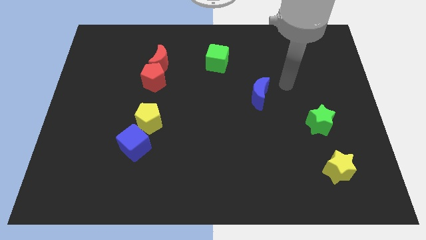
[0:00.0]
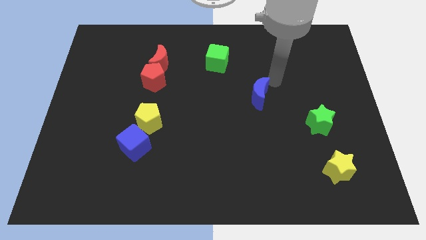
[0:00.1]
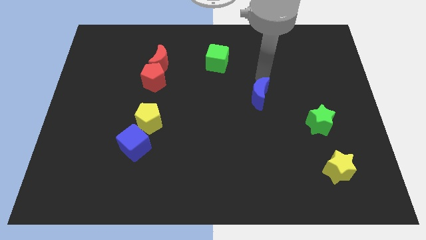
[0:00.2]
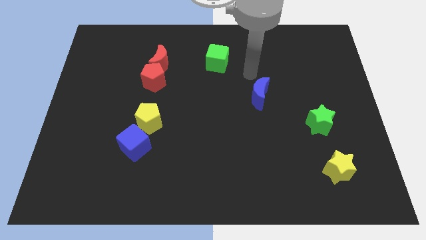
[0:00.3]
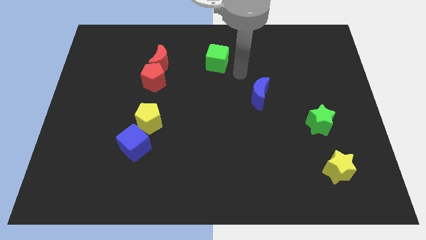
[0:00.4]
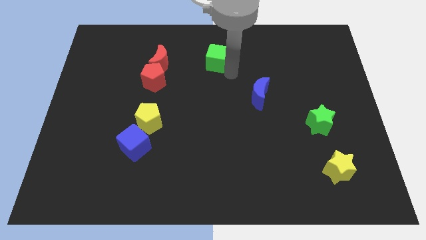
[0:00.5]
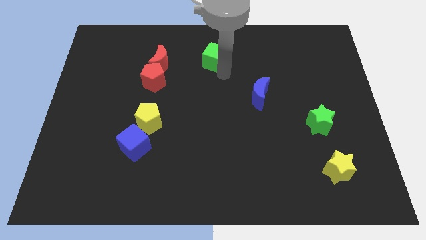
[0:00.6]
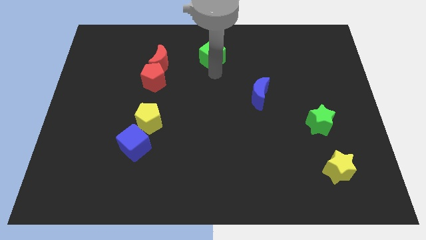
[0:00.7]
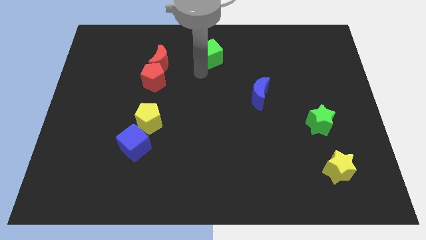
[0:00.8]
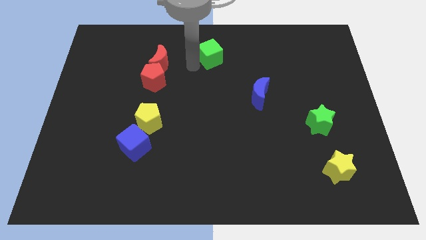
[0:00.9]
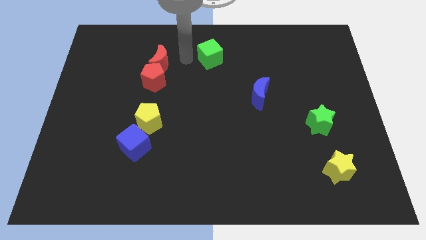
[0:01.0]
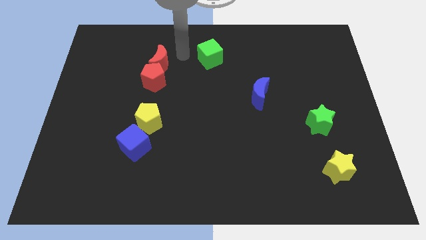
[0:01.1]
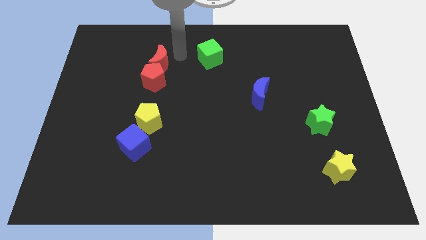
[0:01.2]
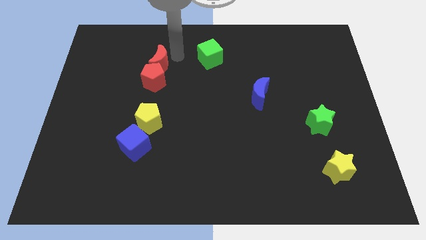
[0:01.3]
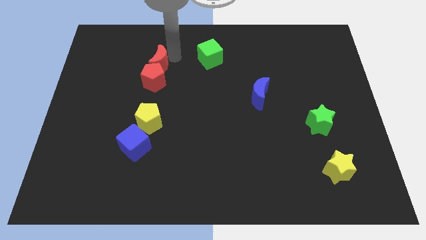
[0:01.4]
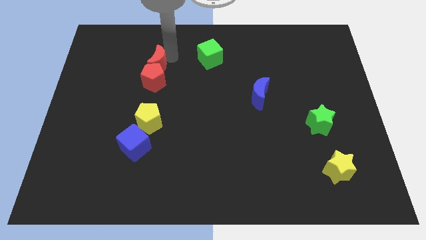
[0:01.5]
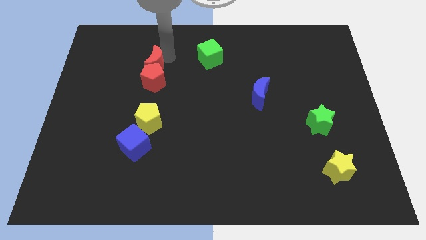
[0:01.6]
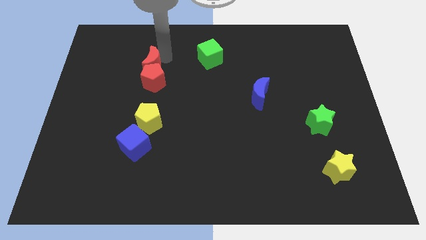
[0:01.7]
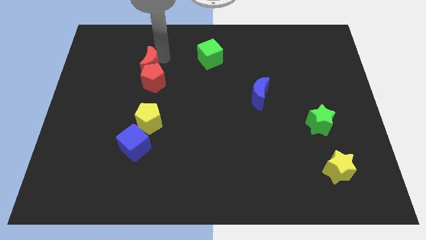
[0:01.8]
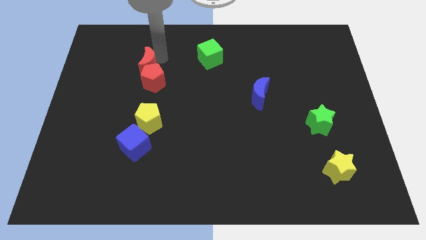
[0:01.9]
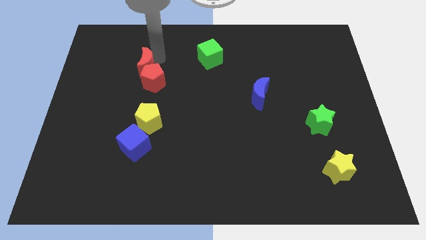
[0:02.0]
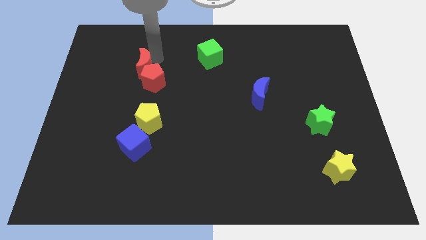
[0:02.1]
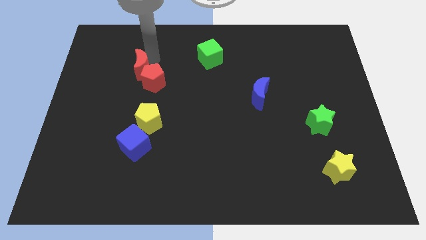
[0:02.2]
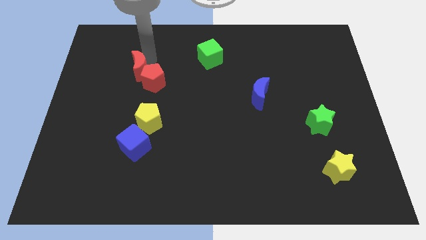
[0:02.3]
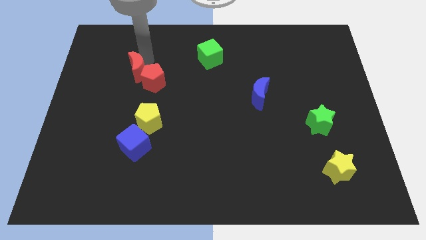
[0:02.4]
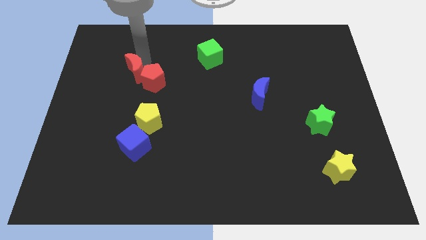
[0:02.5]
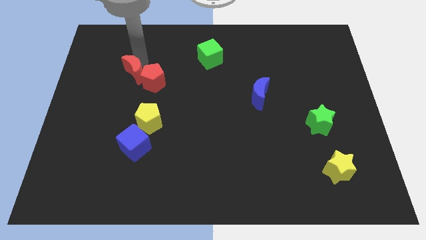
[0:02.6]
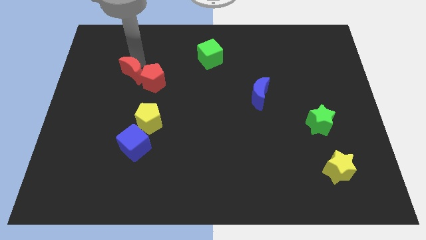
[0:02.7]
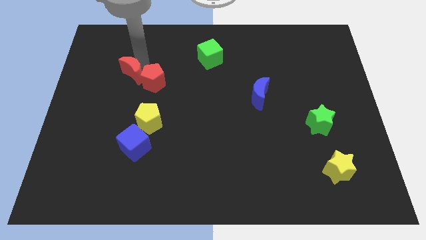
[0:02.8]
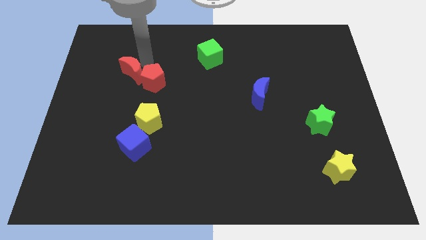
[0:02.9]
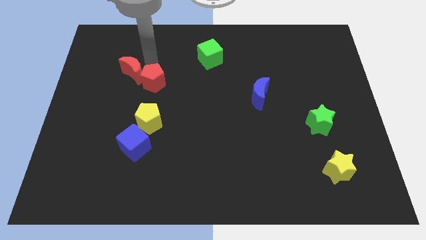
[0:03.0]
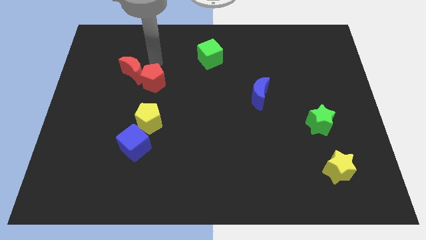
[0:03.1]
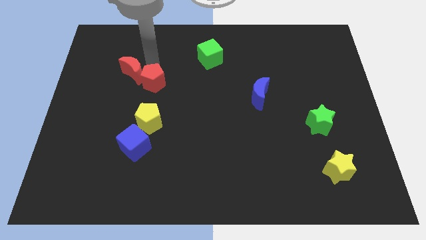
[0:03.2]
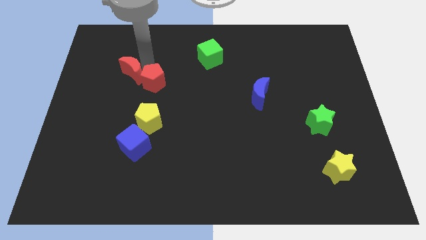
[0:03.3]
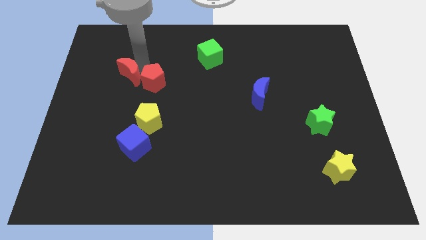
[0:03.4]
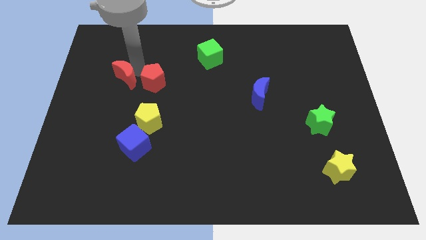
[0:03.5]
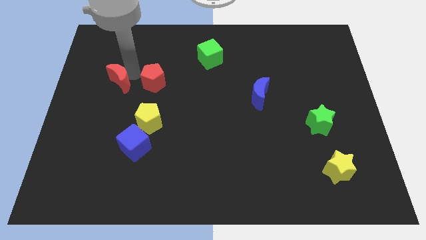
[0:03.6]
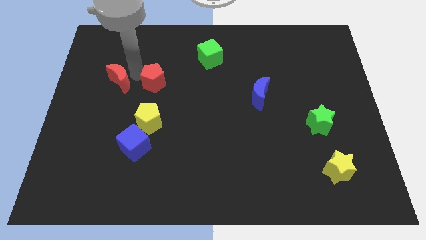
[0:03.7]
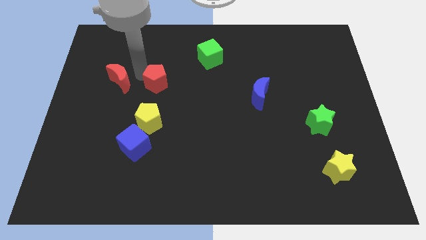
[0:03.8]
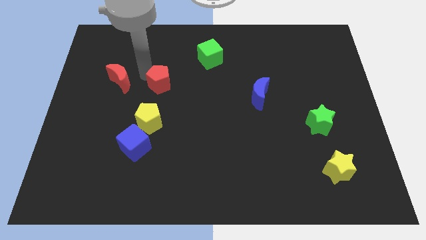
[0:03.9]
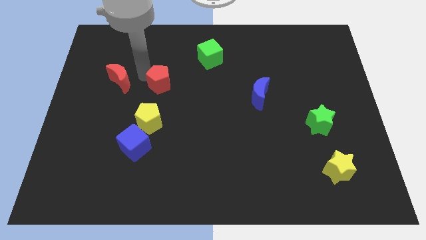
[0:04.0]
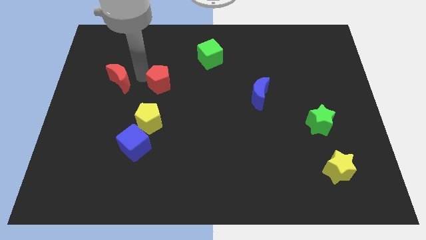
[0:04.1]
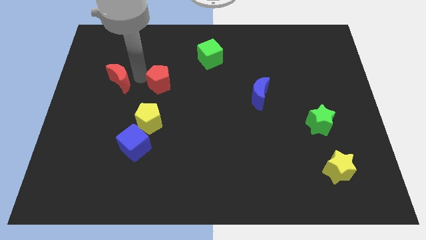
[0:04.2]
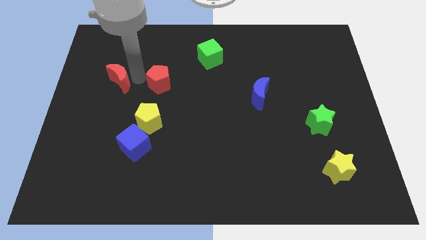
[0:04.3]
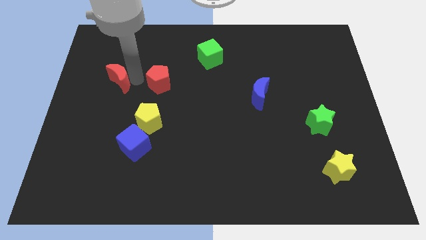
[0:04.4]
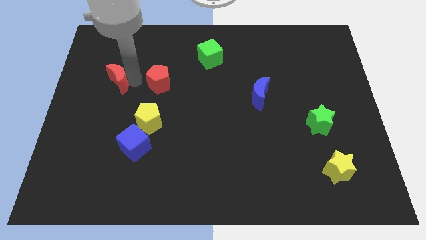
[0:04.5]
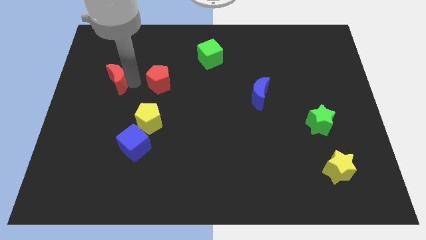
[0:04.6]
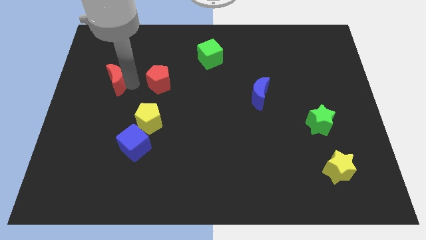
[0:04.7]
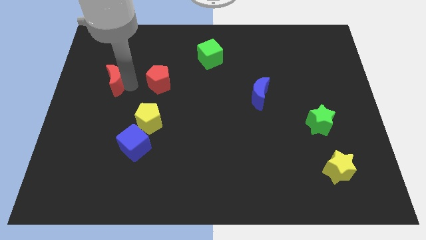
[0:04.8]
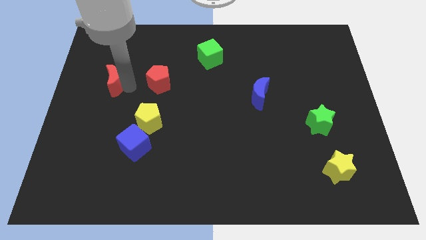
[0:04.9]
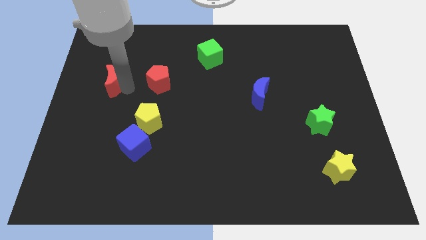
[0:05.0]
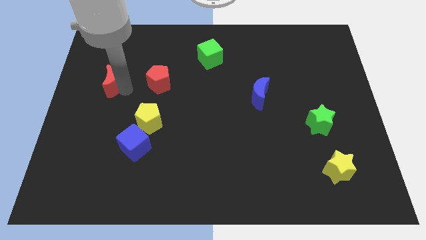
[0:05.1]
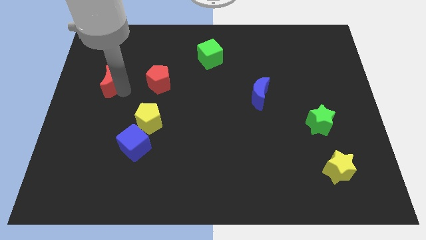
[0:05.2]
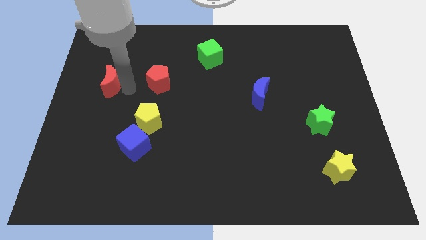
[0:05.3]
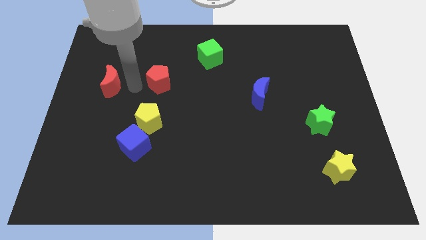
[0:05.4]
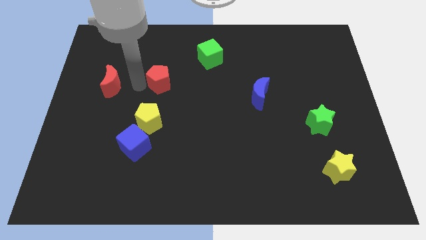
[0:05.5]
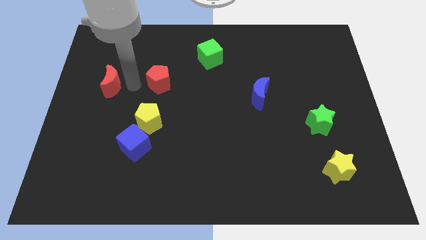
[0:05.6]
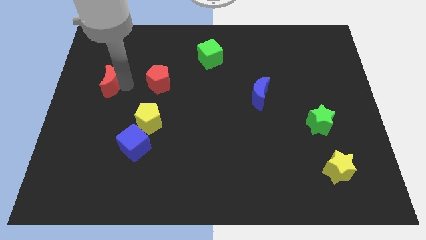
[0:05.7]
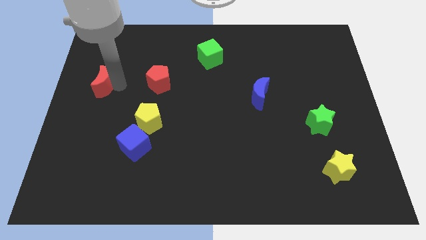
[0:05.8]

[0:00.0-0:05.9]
move the red moon to the left side

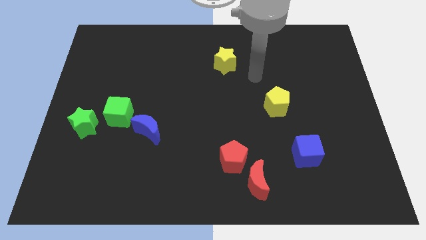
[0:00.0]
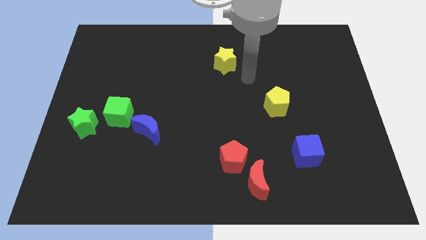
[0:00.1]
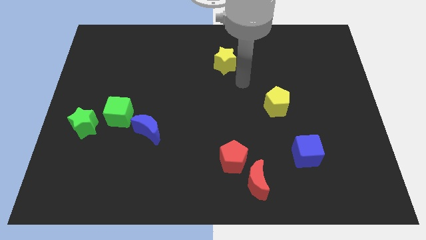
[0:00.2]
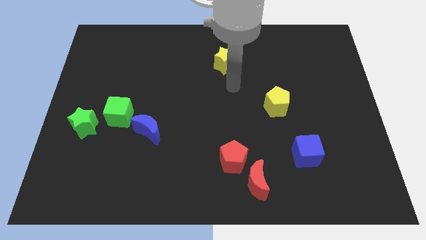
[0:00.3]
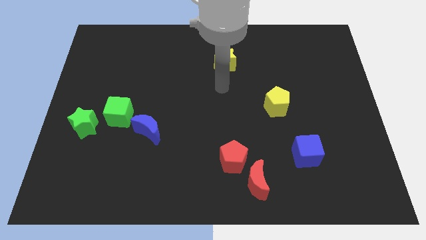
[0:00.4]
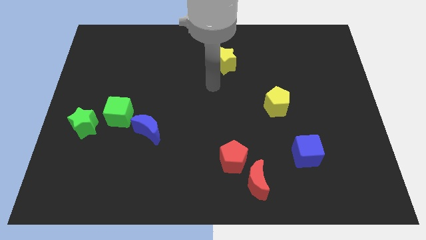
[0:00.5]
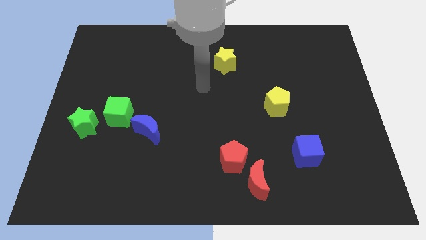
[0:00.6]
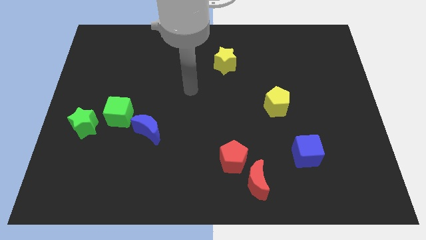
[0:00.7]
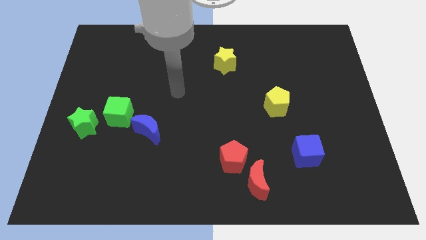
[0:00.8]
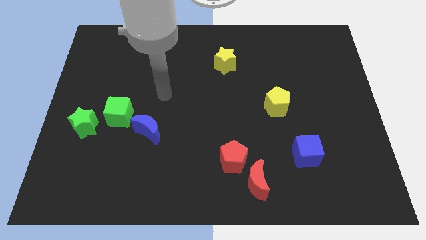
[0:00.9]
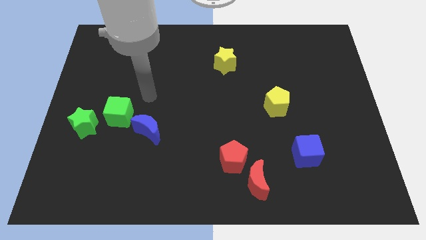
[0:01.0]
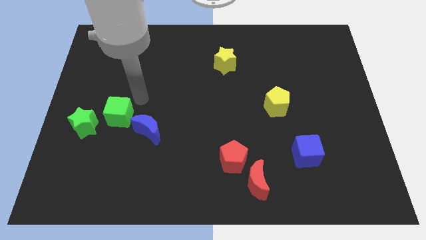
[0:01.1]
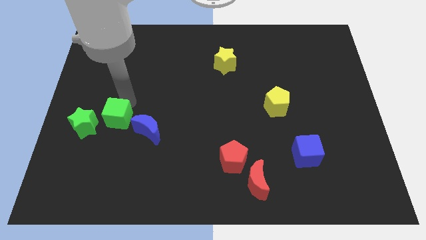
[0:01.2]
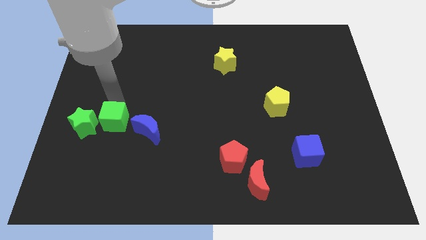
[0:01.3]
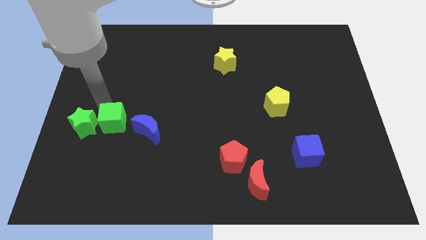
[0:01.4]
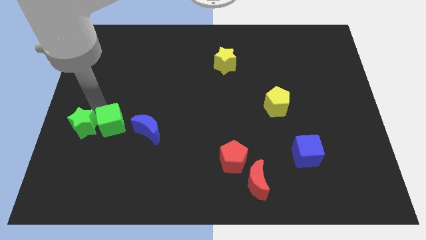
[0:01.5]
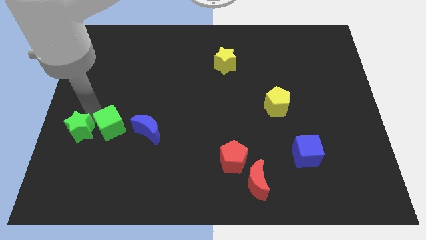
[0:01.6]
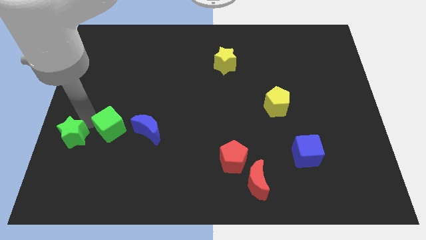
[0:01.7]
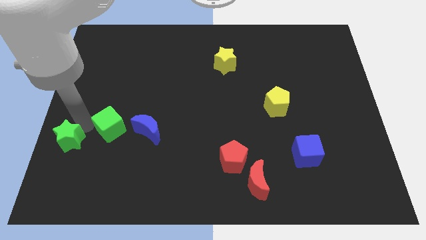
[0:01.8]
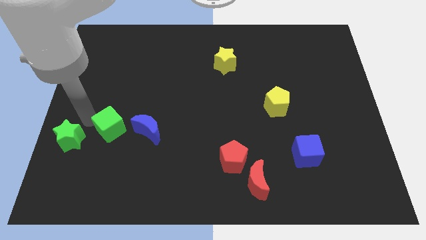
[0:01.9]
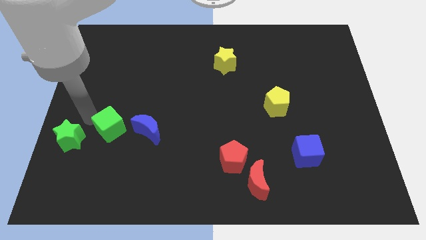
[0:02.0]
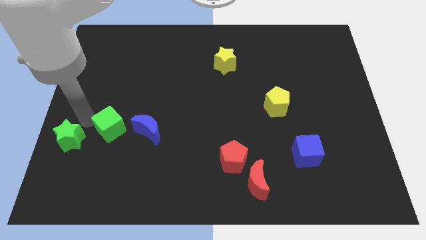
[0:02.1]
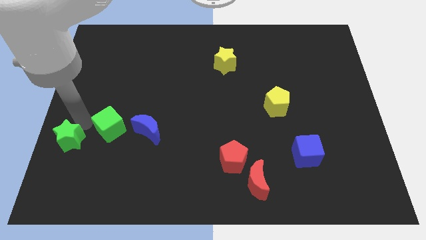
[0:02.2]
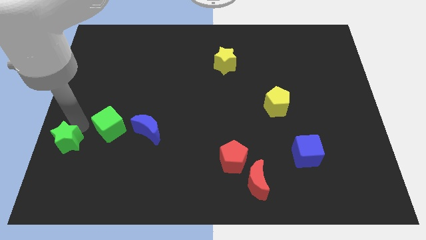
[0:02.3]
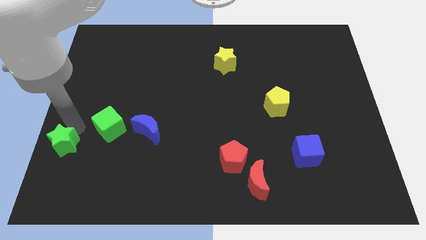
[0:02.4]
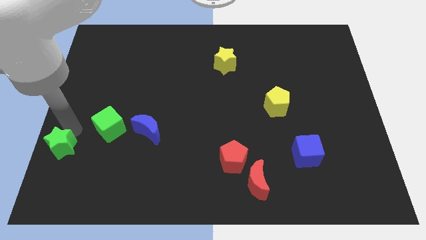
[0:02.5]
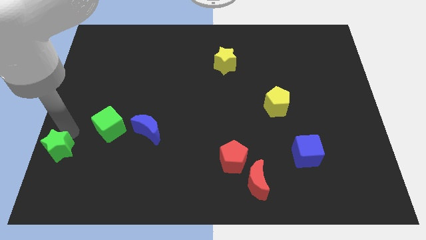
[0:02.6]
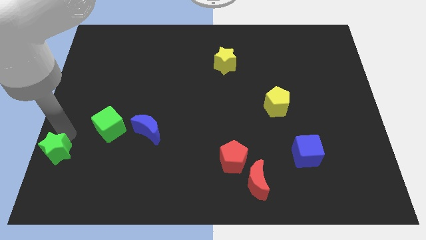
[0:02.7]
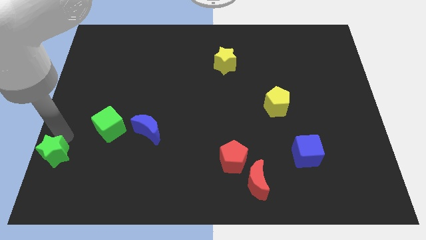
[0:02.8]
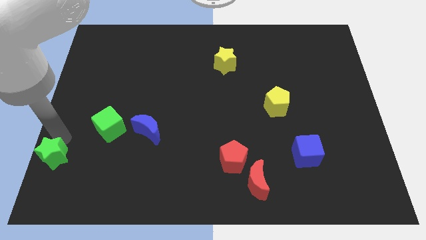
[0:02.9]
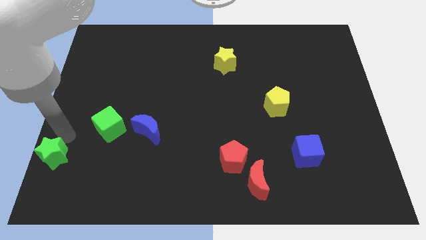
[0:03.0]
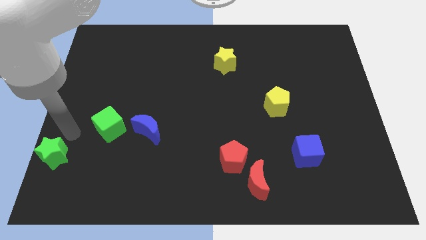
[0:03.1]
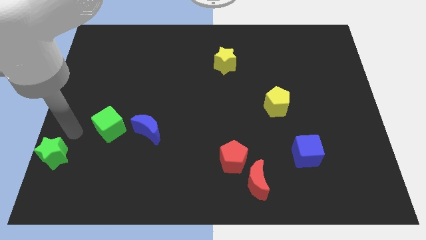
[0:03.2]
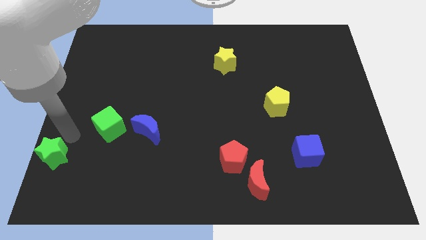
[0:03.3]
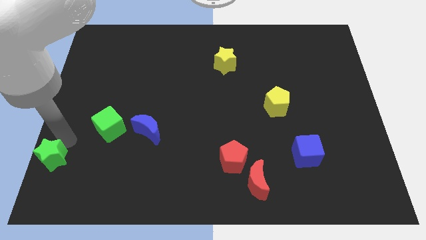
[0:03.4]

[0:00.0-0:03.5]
push the green star to the bottom left
